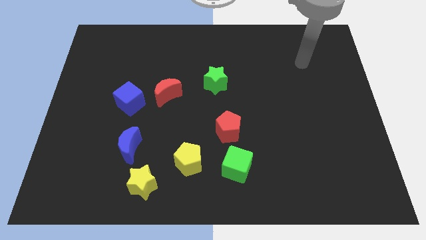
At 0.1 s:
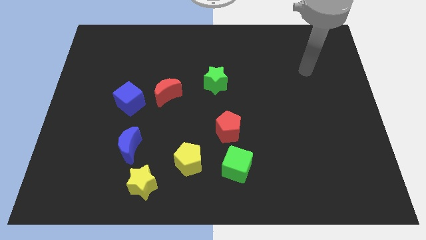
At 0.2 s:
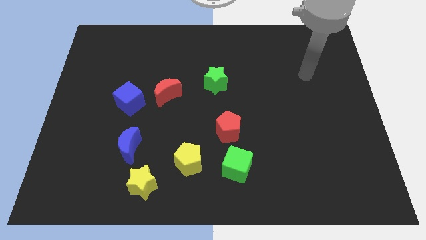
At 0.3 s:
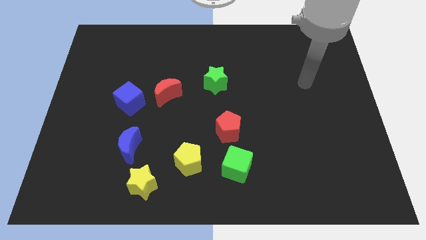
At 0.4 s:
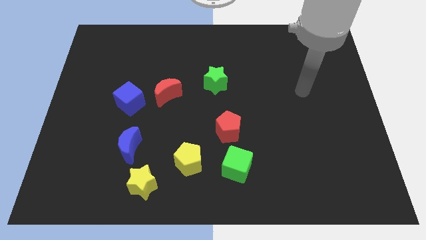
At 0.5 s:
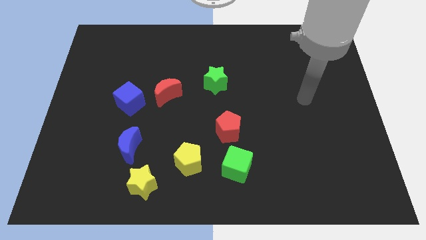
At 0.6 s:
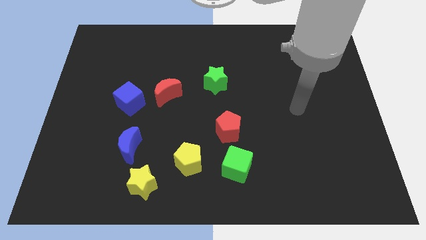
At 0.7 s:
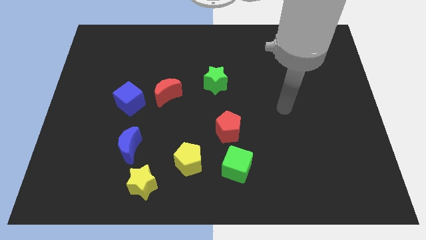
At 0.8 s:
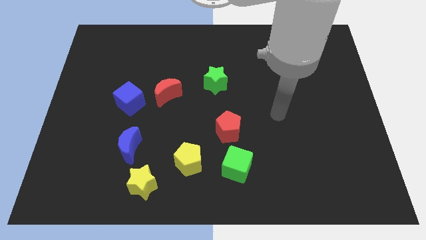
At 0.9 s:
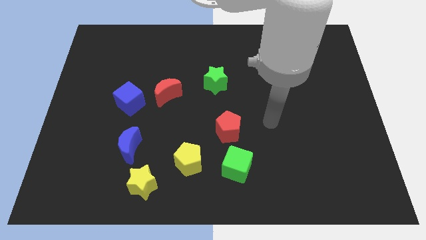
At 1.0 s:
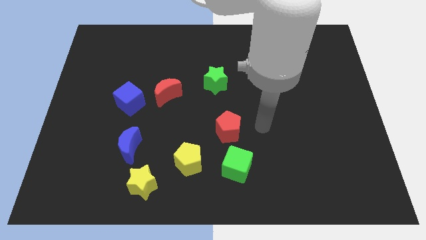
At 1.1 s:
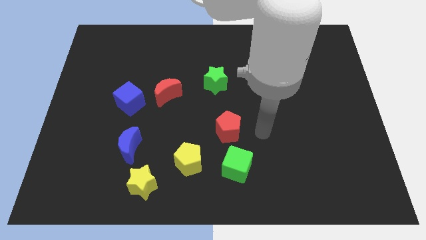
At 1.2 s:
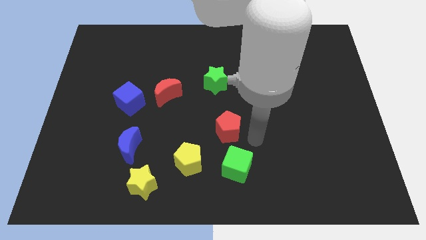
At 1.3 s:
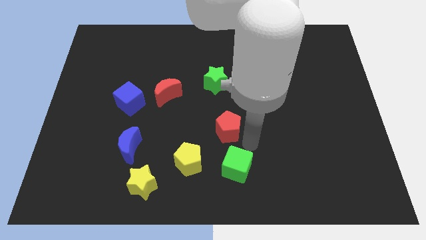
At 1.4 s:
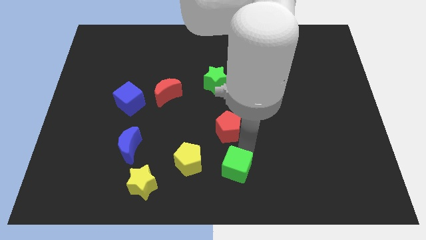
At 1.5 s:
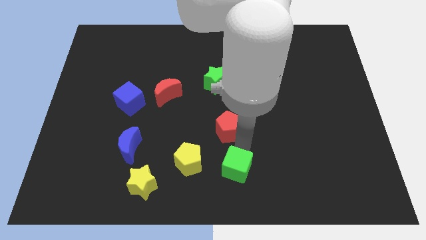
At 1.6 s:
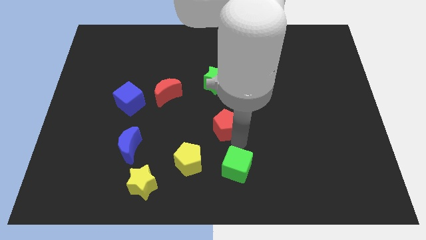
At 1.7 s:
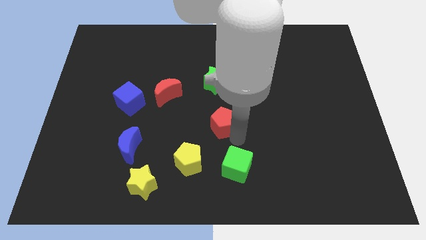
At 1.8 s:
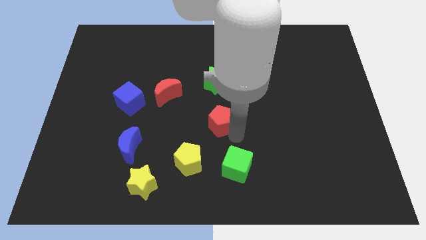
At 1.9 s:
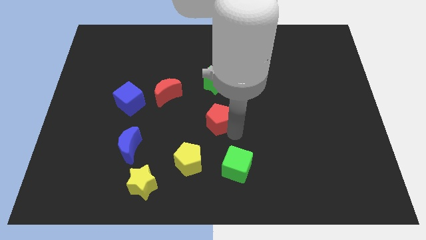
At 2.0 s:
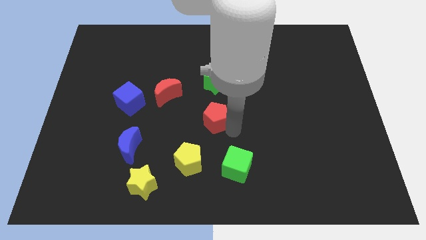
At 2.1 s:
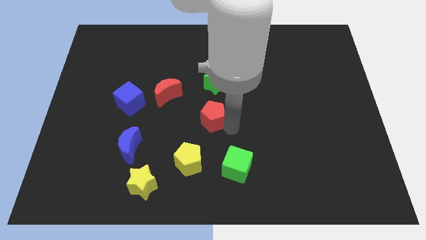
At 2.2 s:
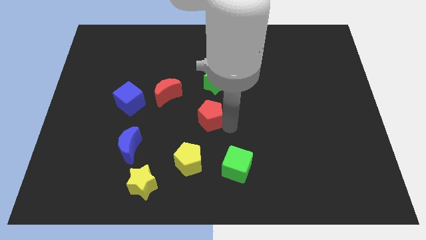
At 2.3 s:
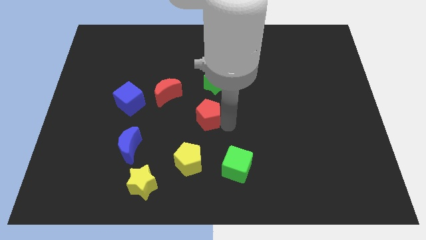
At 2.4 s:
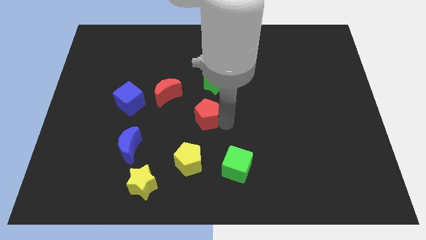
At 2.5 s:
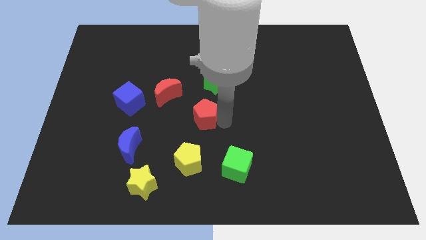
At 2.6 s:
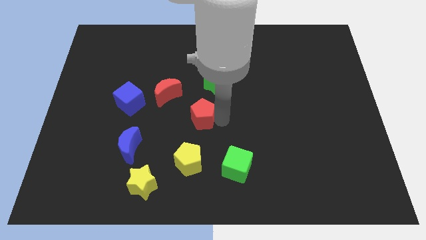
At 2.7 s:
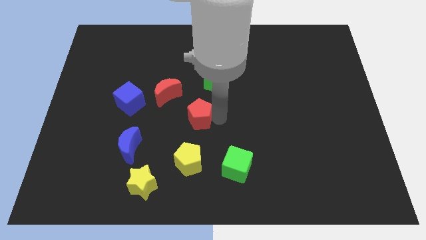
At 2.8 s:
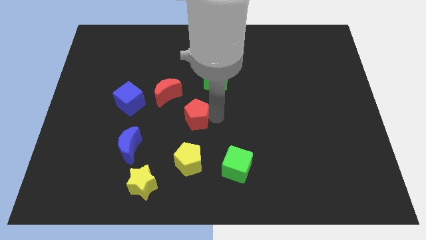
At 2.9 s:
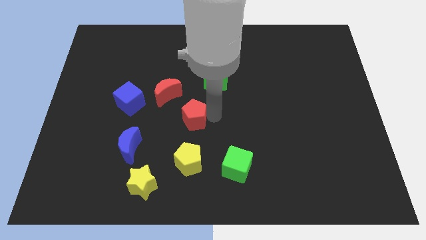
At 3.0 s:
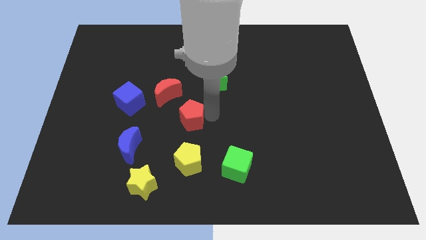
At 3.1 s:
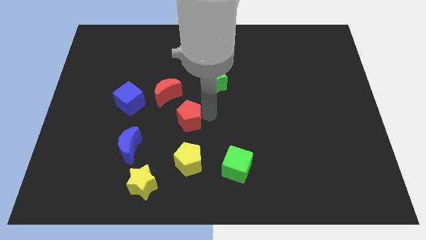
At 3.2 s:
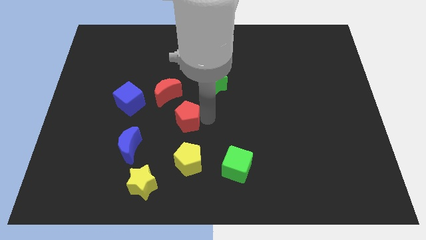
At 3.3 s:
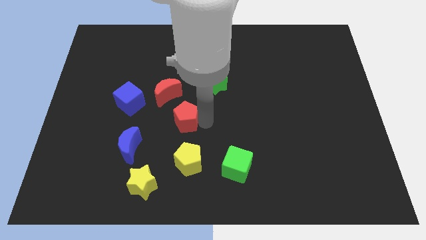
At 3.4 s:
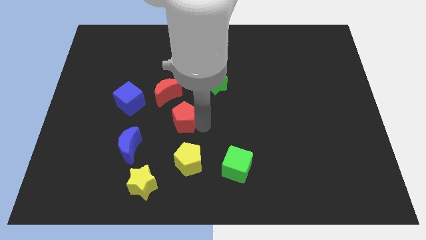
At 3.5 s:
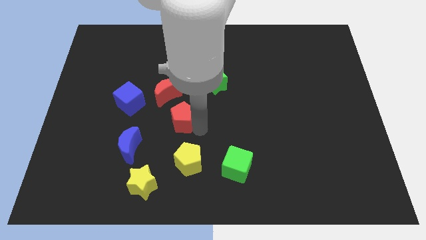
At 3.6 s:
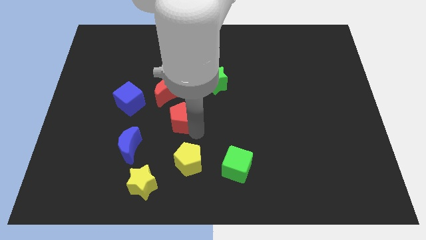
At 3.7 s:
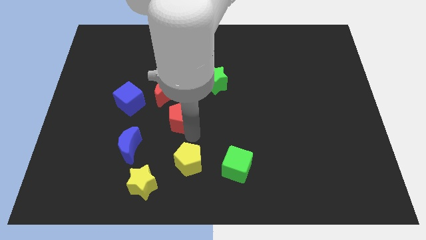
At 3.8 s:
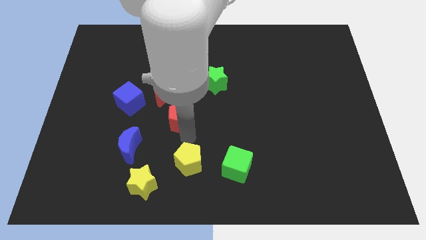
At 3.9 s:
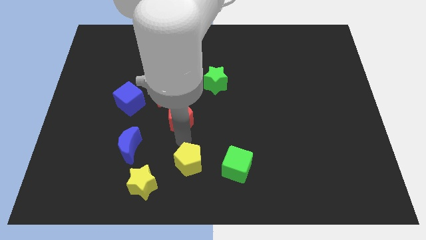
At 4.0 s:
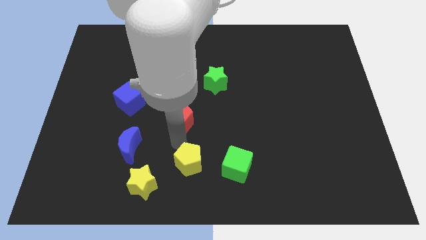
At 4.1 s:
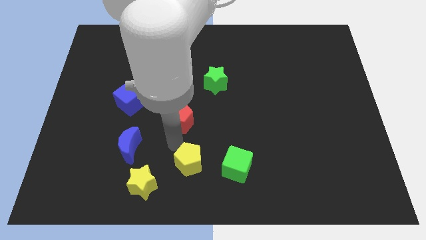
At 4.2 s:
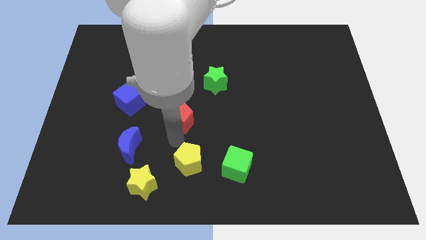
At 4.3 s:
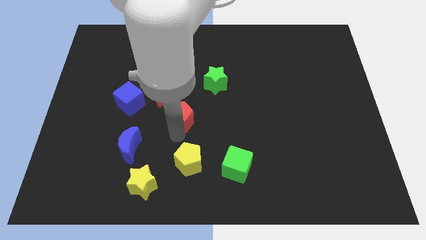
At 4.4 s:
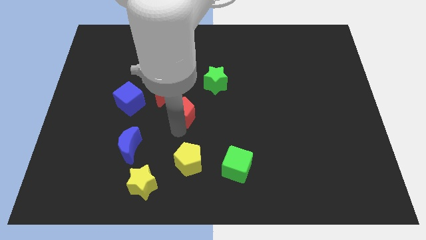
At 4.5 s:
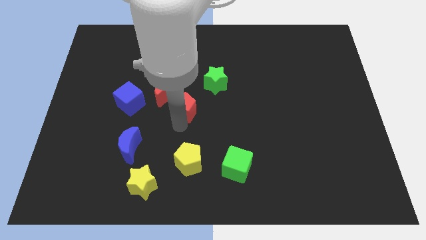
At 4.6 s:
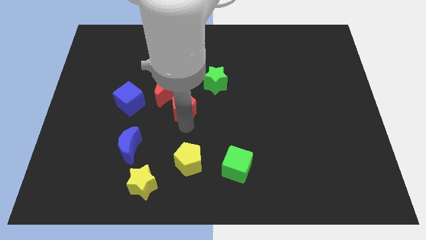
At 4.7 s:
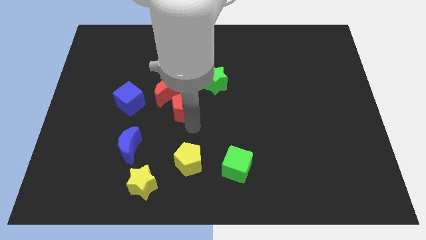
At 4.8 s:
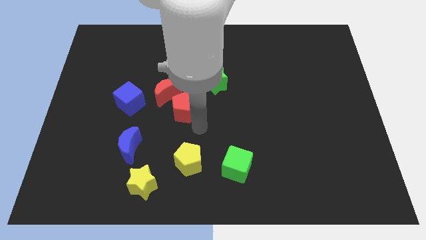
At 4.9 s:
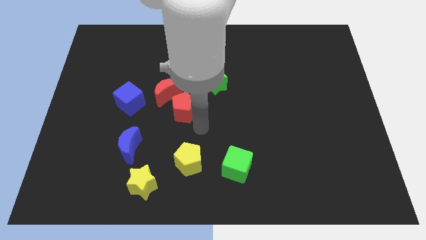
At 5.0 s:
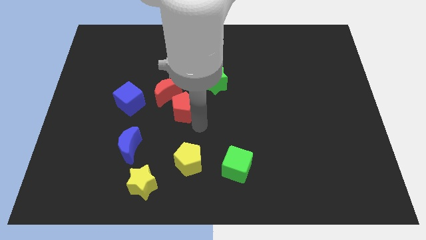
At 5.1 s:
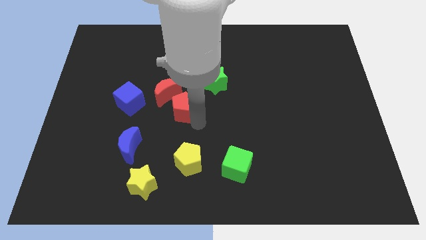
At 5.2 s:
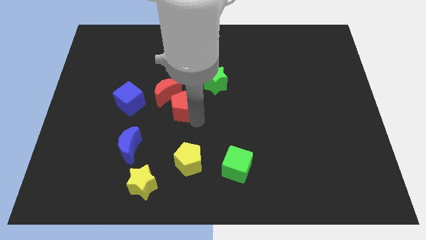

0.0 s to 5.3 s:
move the red pentagon next to the red moon

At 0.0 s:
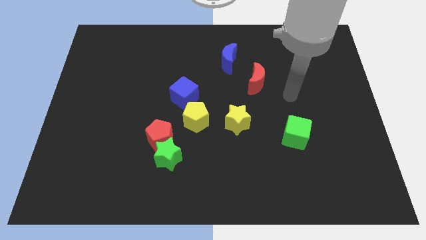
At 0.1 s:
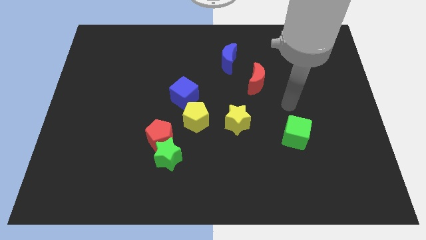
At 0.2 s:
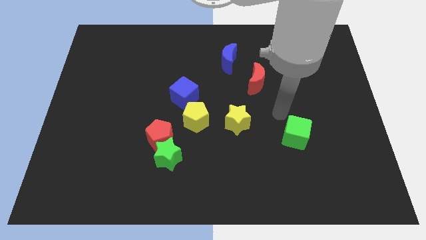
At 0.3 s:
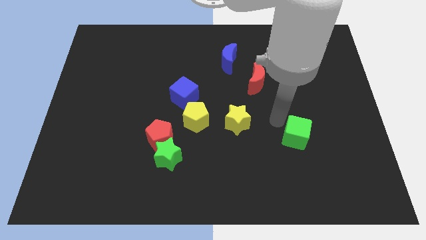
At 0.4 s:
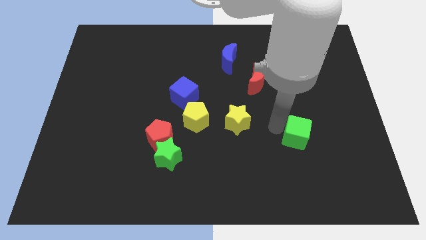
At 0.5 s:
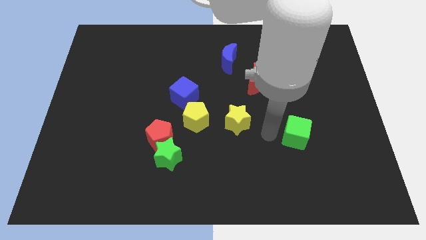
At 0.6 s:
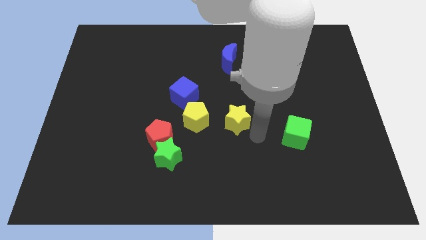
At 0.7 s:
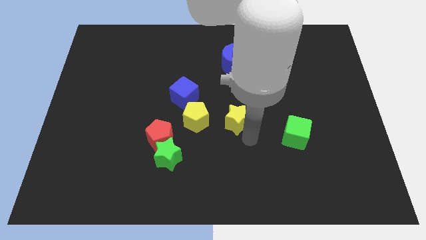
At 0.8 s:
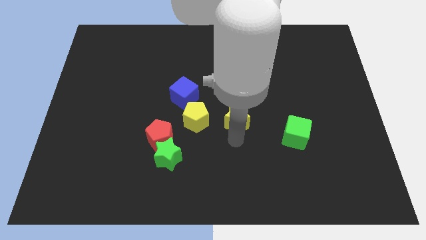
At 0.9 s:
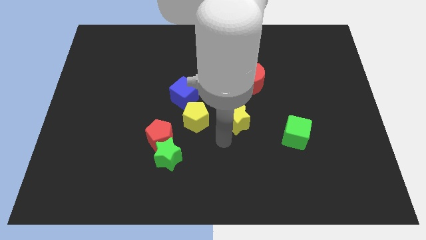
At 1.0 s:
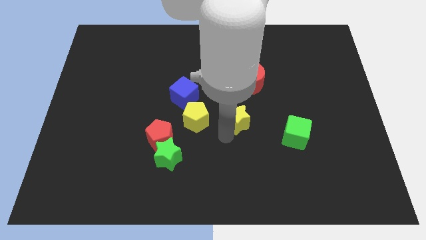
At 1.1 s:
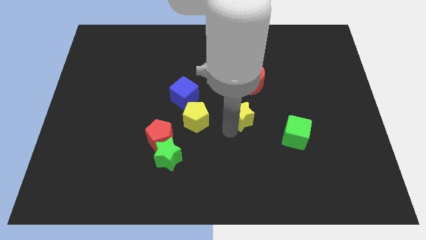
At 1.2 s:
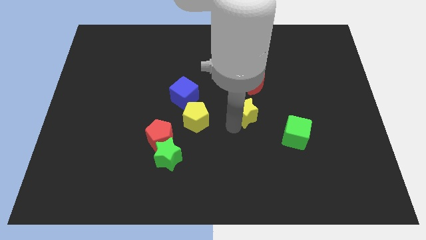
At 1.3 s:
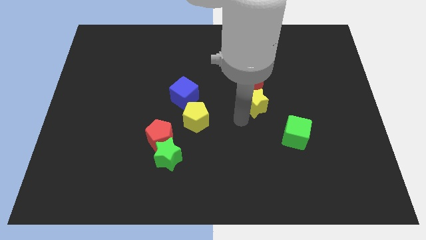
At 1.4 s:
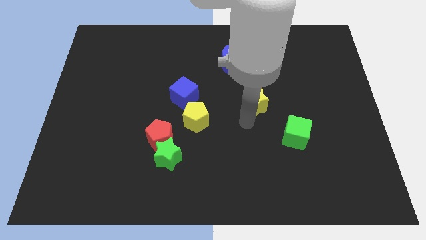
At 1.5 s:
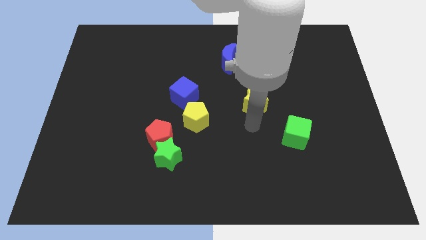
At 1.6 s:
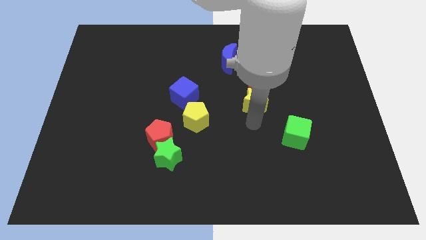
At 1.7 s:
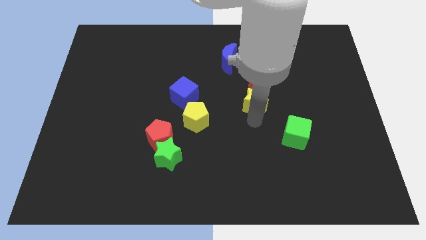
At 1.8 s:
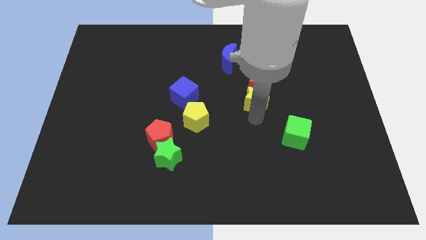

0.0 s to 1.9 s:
put the yellow star next to the red moon
